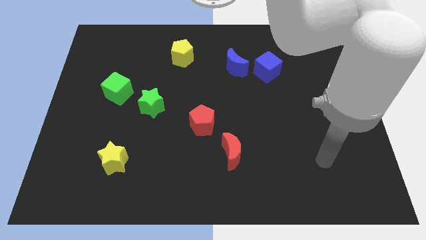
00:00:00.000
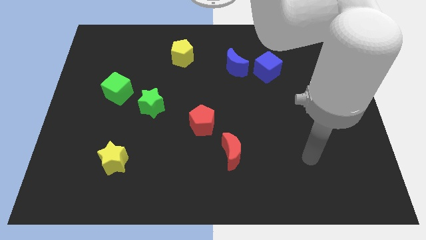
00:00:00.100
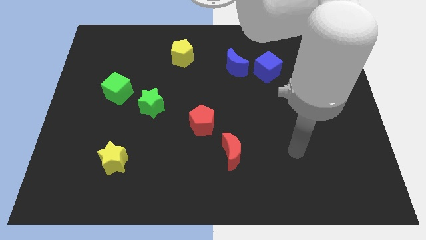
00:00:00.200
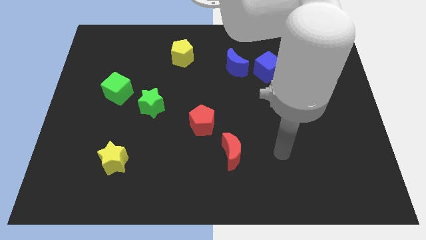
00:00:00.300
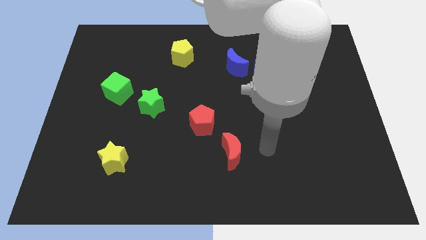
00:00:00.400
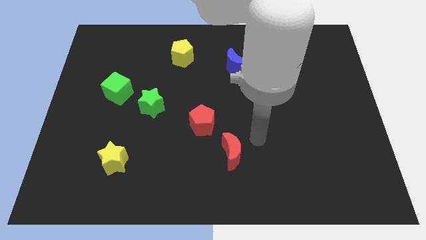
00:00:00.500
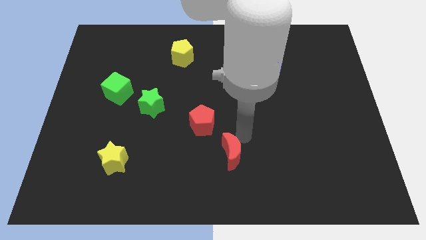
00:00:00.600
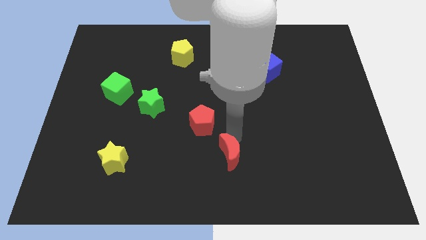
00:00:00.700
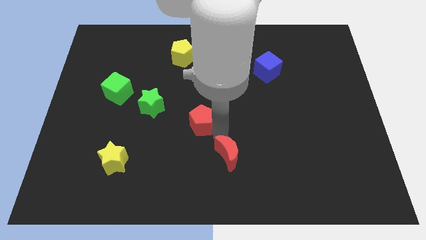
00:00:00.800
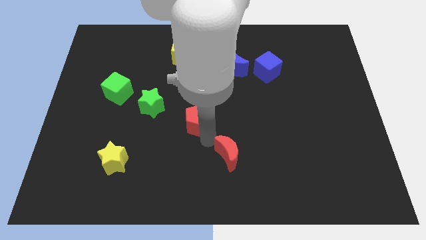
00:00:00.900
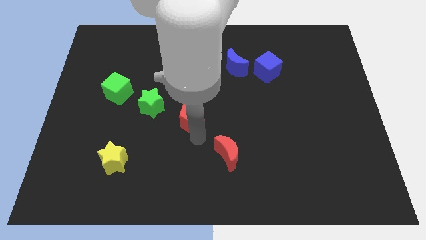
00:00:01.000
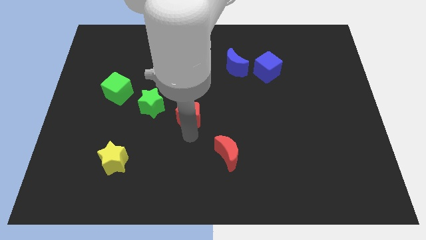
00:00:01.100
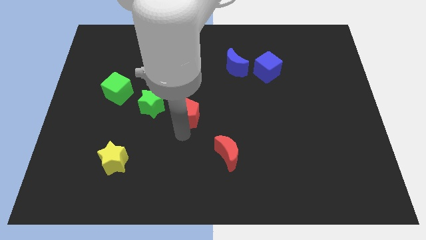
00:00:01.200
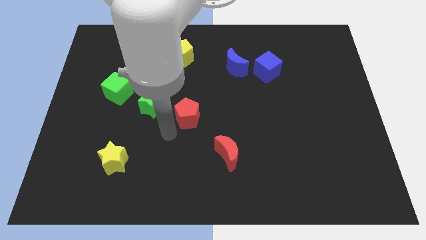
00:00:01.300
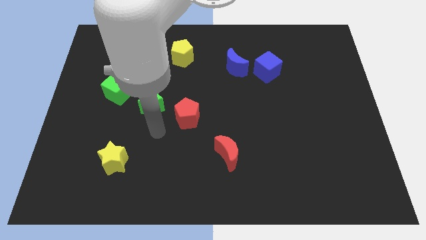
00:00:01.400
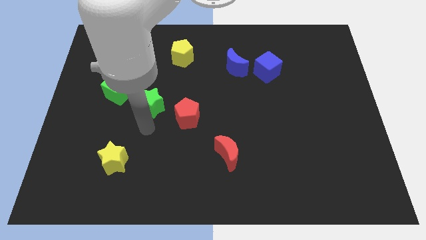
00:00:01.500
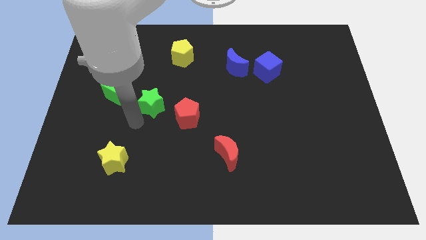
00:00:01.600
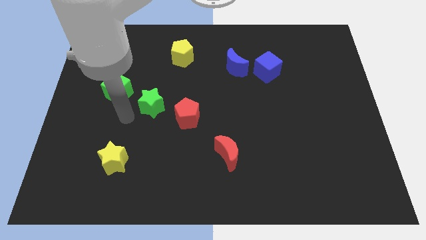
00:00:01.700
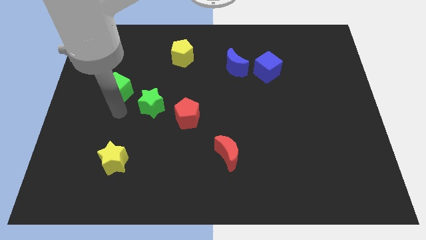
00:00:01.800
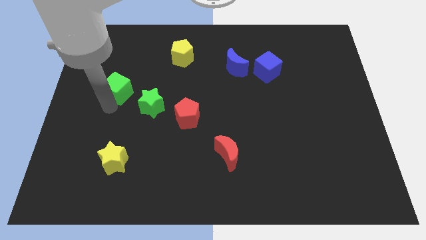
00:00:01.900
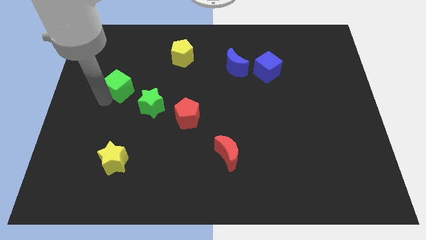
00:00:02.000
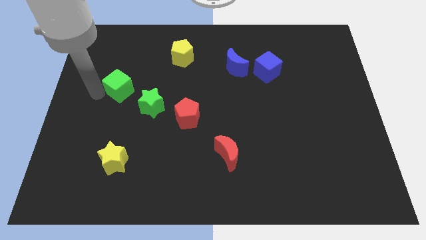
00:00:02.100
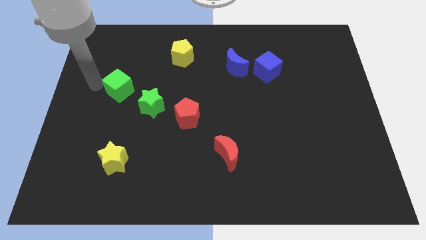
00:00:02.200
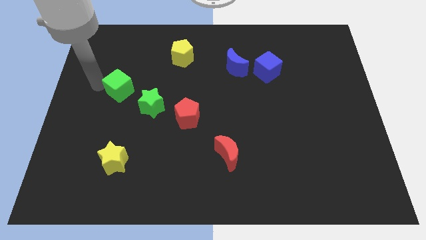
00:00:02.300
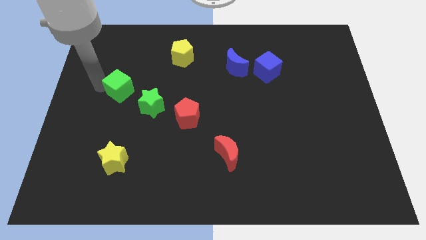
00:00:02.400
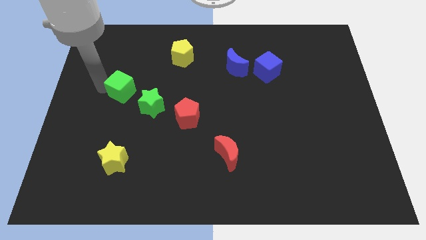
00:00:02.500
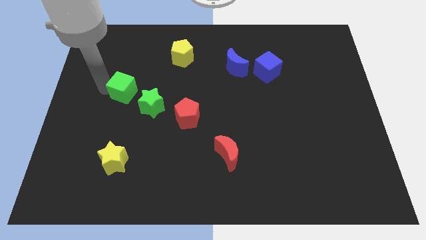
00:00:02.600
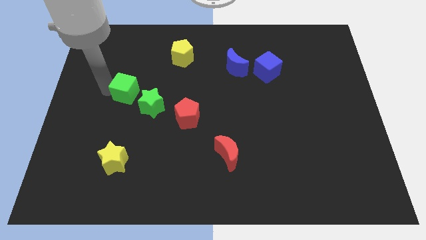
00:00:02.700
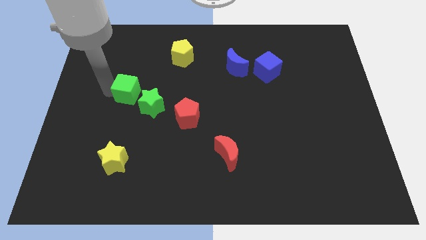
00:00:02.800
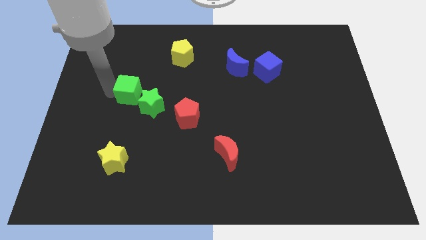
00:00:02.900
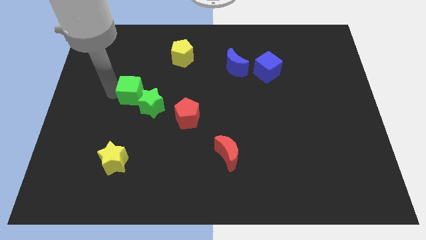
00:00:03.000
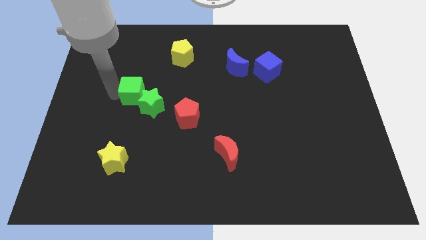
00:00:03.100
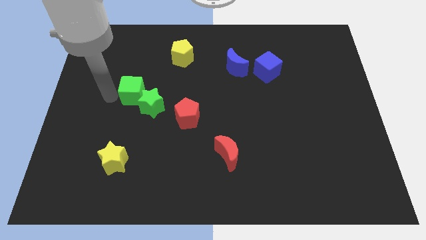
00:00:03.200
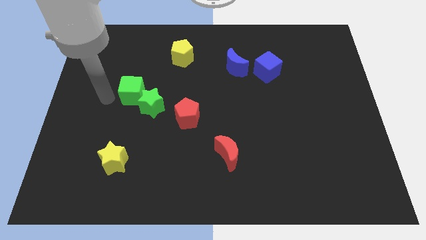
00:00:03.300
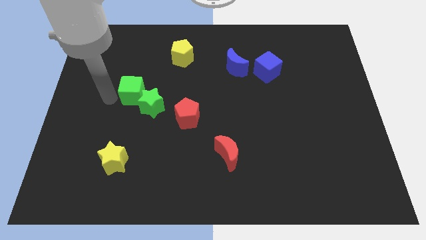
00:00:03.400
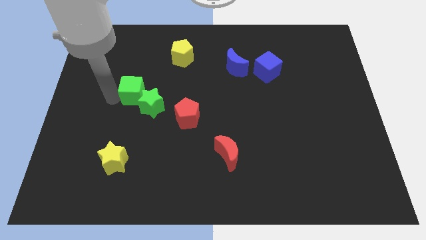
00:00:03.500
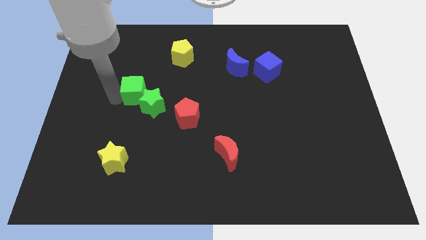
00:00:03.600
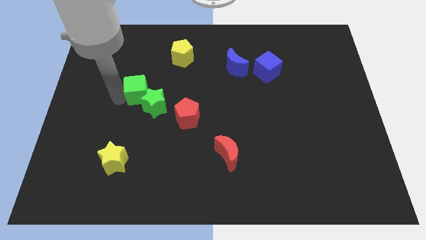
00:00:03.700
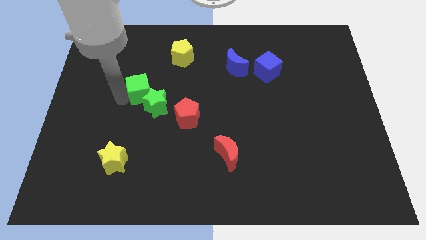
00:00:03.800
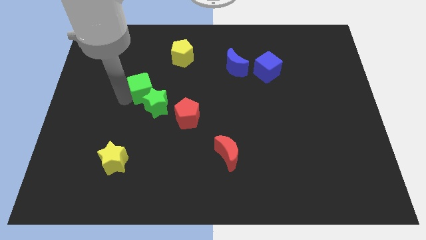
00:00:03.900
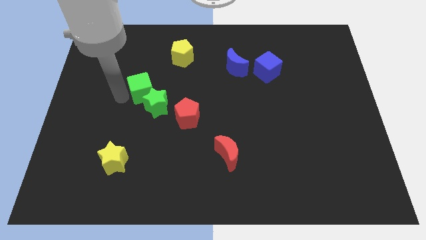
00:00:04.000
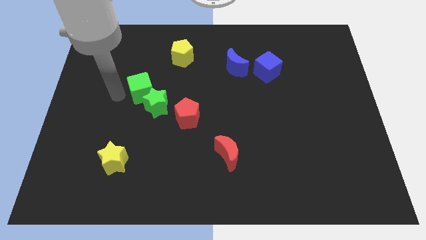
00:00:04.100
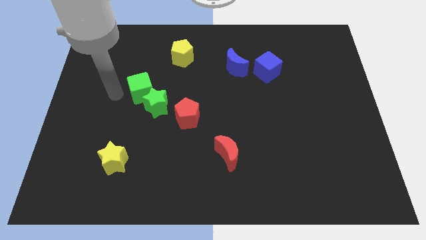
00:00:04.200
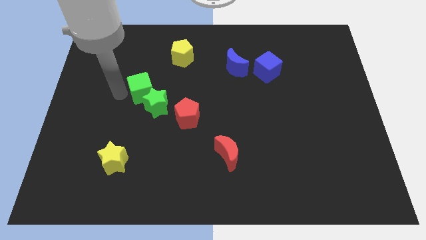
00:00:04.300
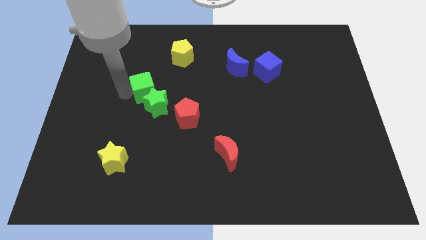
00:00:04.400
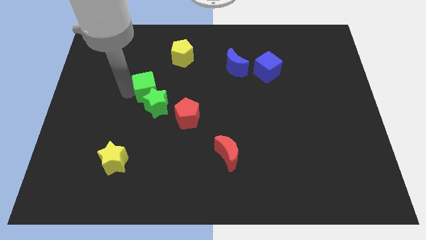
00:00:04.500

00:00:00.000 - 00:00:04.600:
slightly move the green cube right

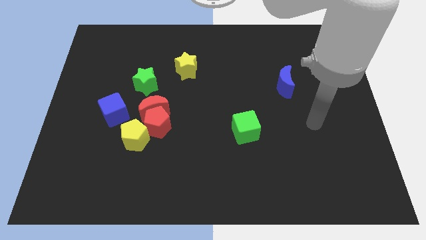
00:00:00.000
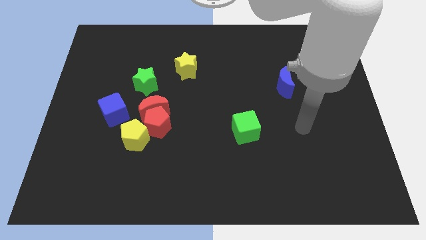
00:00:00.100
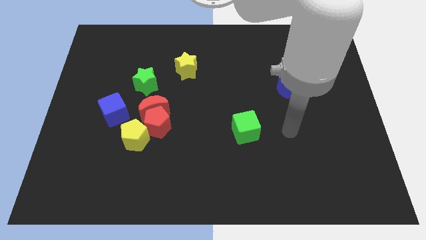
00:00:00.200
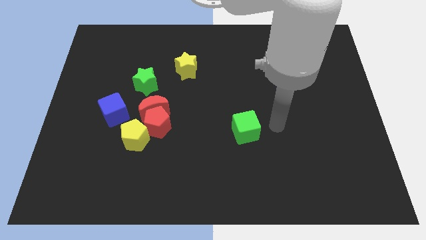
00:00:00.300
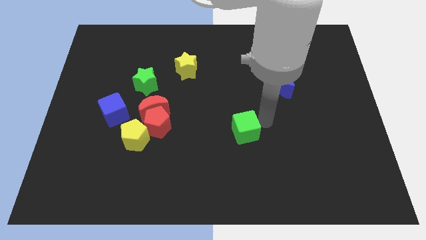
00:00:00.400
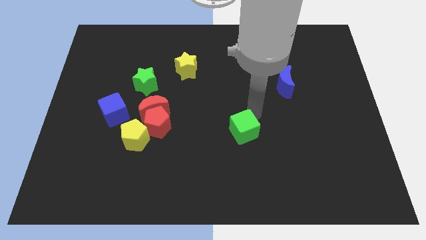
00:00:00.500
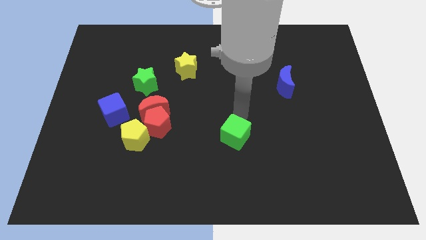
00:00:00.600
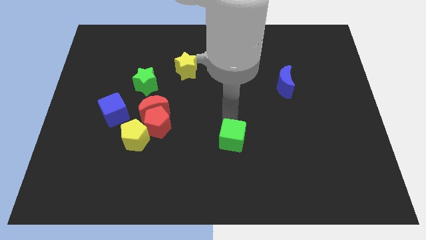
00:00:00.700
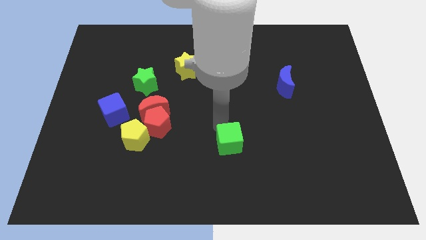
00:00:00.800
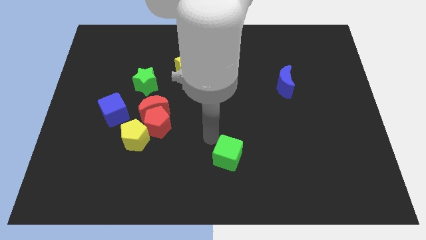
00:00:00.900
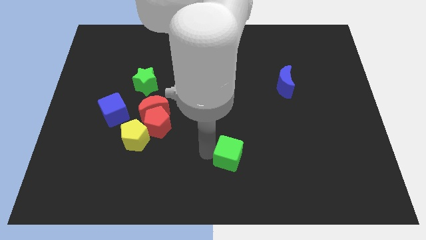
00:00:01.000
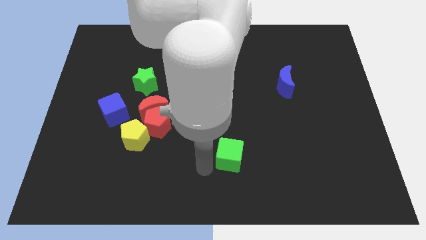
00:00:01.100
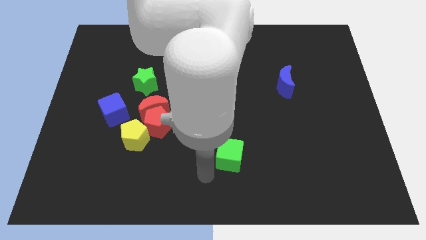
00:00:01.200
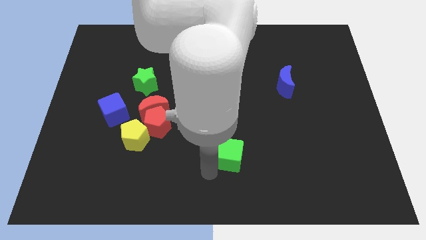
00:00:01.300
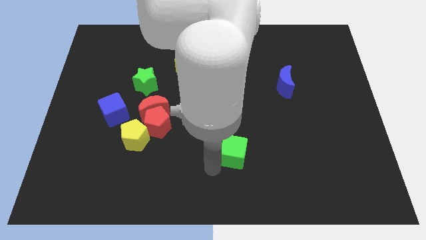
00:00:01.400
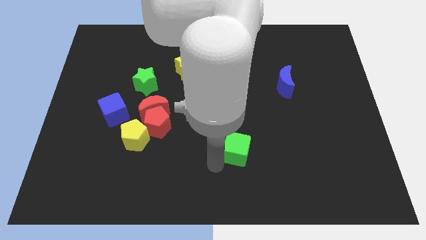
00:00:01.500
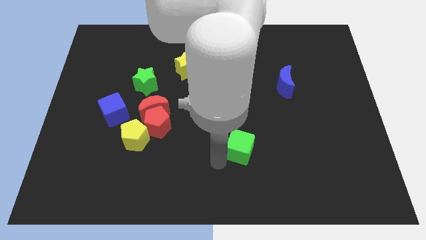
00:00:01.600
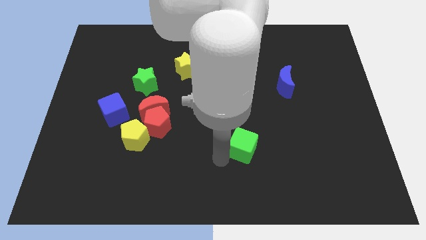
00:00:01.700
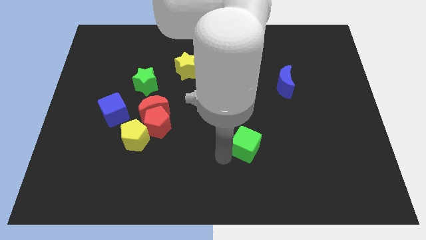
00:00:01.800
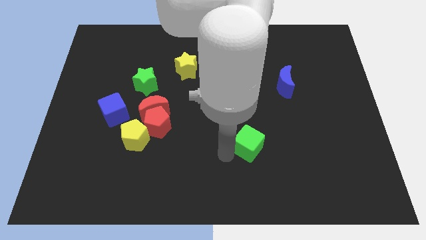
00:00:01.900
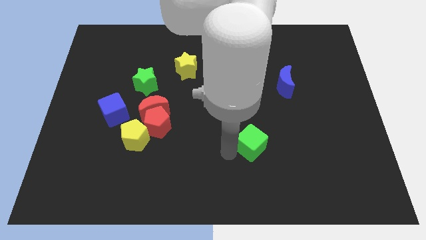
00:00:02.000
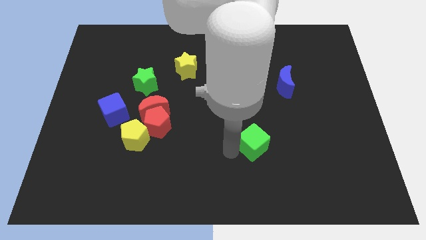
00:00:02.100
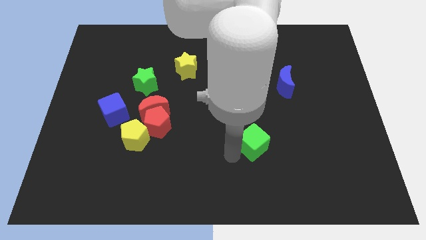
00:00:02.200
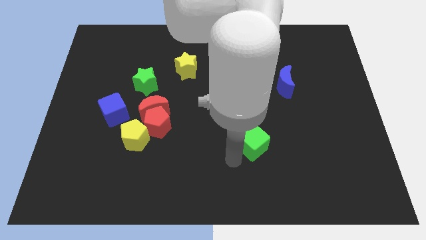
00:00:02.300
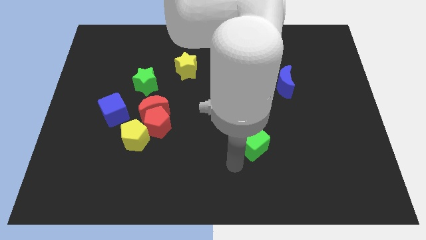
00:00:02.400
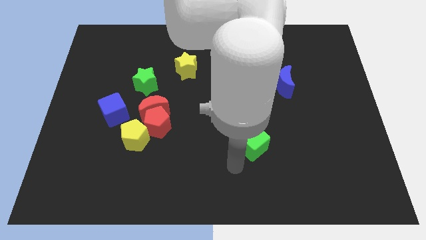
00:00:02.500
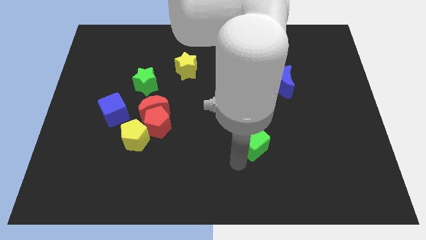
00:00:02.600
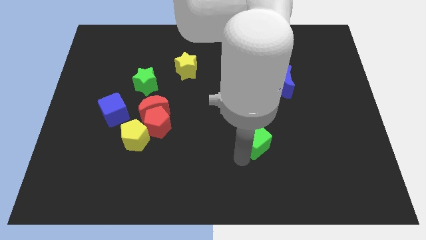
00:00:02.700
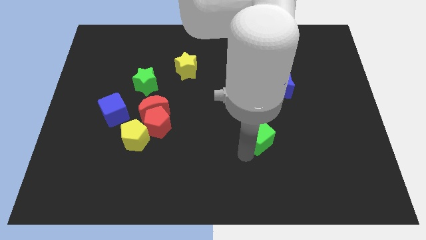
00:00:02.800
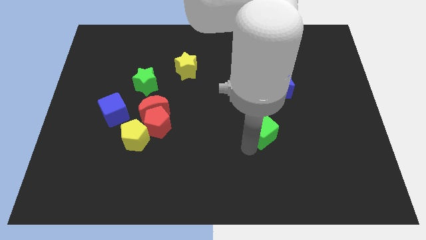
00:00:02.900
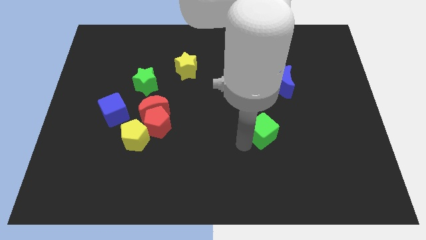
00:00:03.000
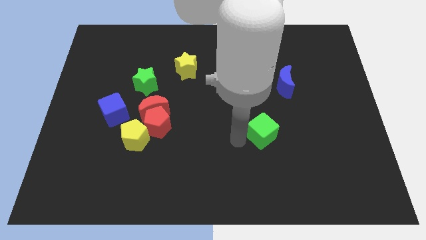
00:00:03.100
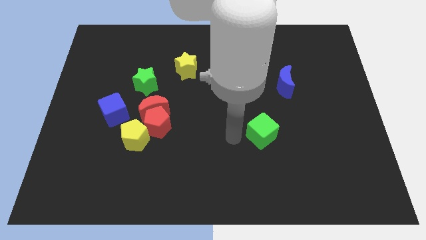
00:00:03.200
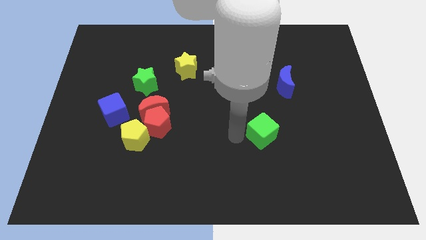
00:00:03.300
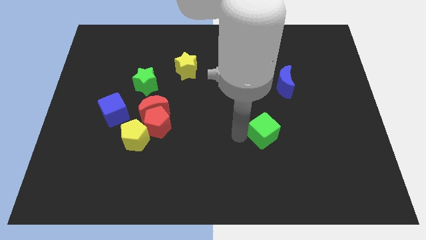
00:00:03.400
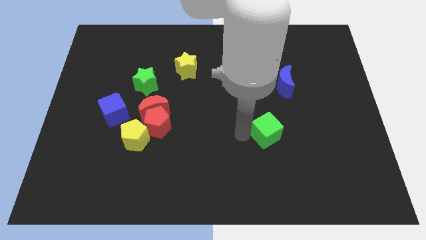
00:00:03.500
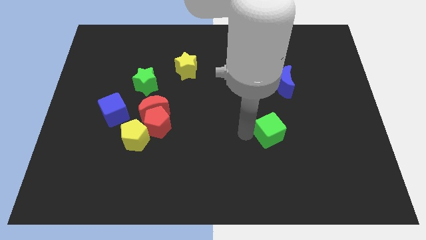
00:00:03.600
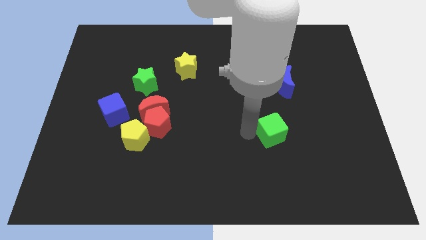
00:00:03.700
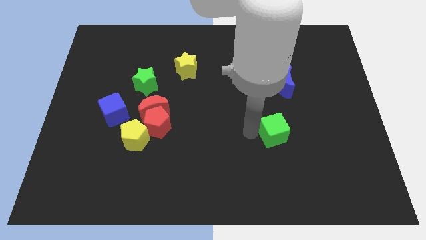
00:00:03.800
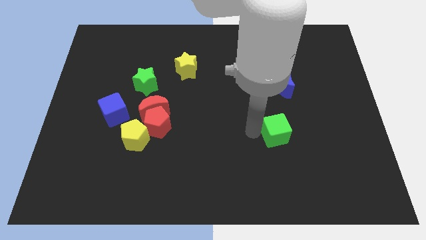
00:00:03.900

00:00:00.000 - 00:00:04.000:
slightly move the green cube to the right
